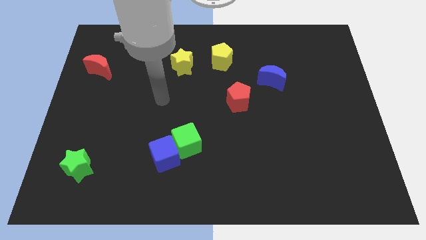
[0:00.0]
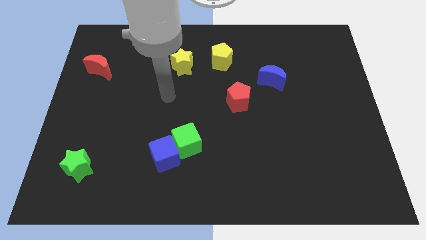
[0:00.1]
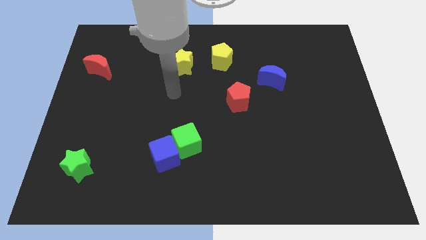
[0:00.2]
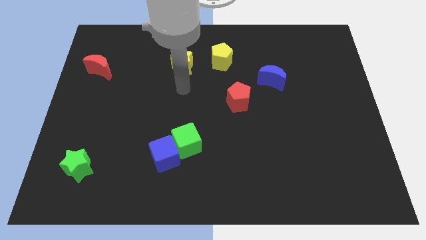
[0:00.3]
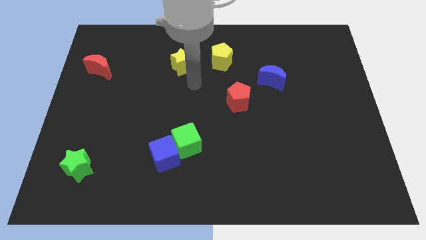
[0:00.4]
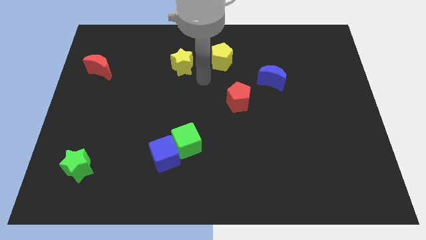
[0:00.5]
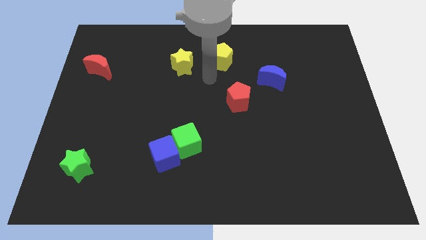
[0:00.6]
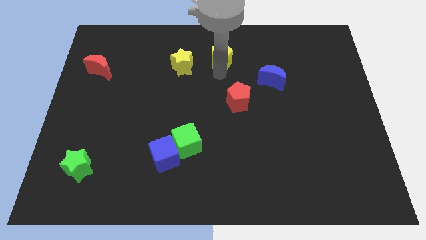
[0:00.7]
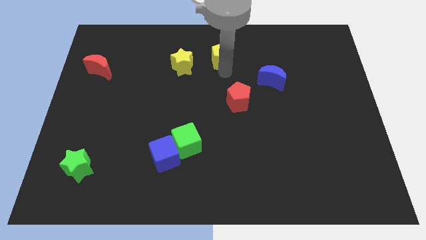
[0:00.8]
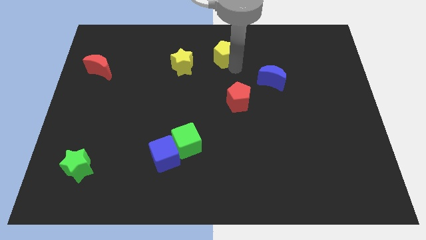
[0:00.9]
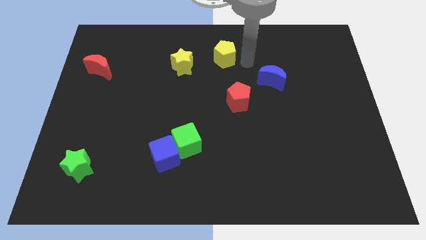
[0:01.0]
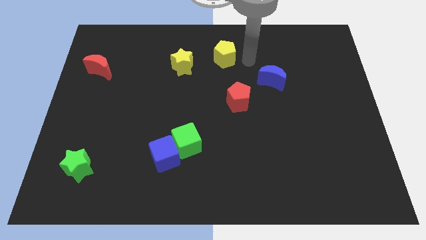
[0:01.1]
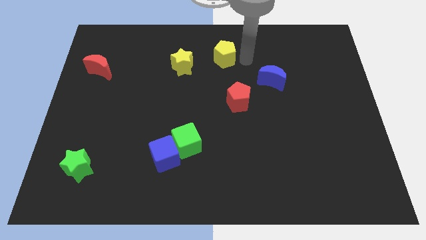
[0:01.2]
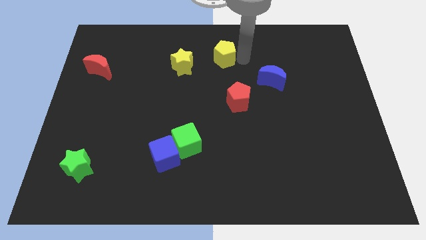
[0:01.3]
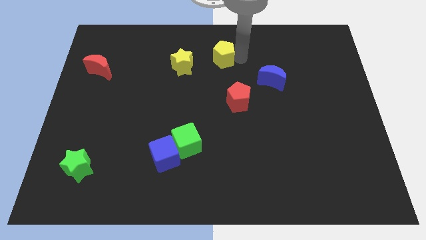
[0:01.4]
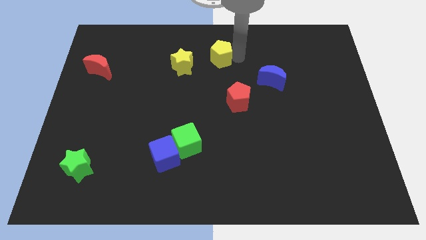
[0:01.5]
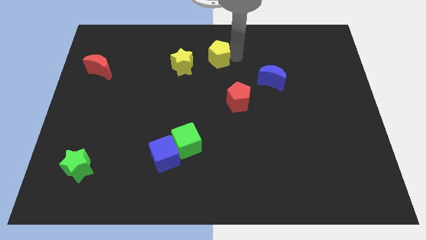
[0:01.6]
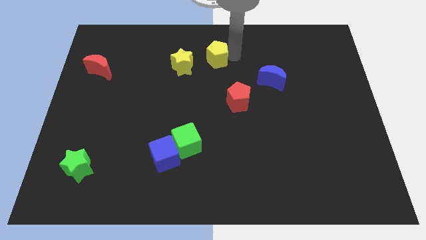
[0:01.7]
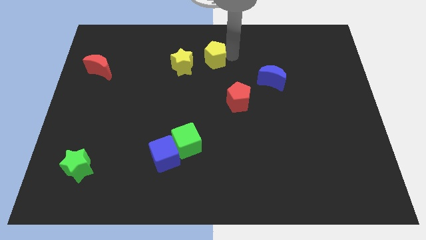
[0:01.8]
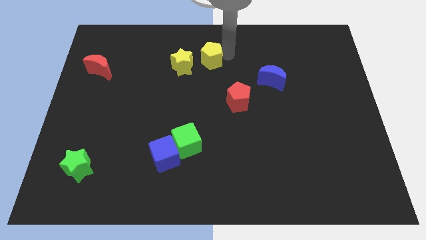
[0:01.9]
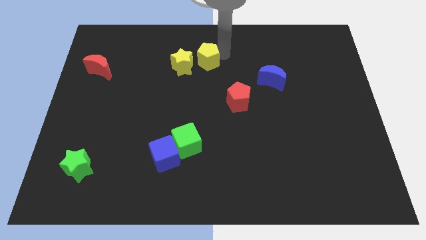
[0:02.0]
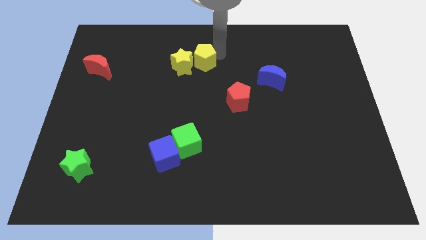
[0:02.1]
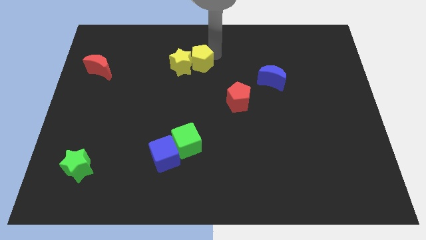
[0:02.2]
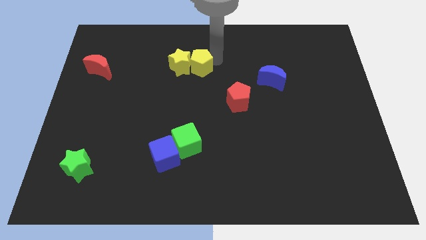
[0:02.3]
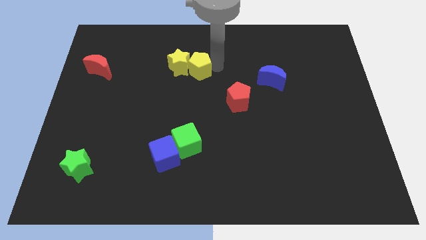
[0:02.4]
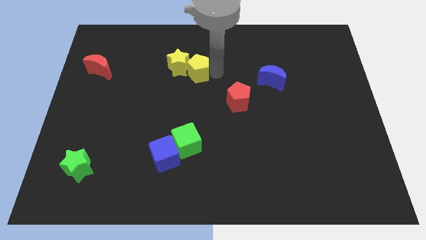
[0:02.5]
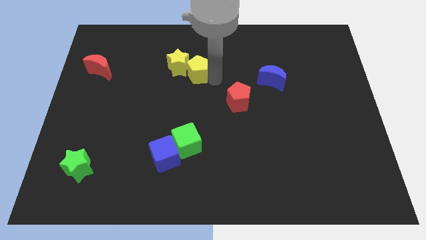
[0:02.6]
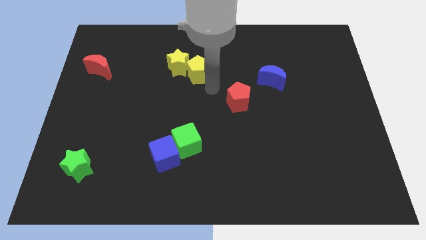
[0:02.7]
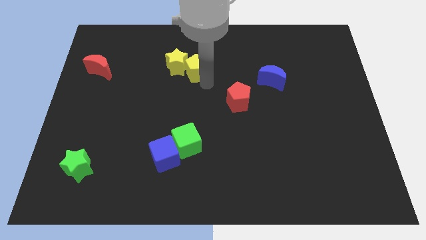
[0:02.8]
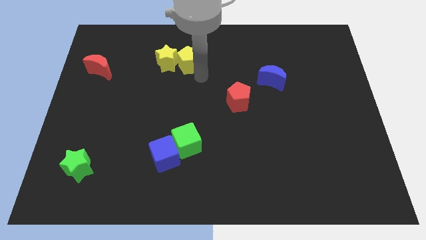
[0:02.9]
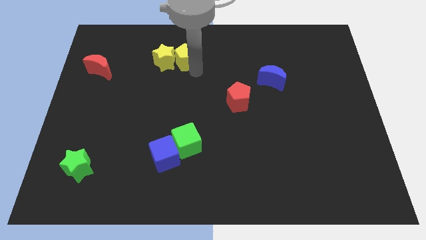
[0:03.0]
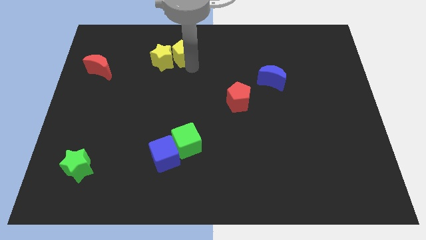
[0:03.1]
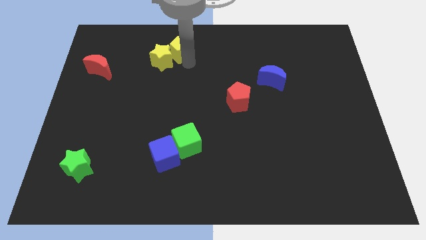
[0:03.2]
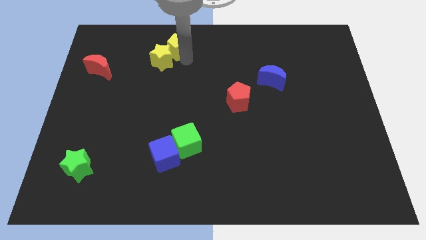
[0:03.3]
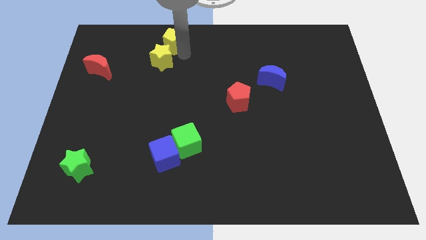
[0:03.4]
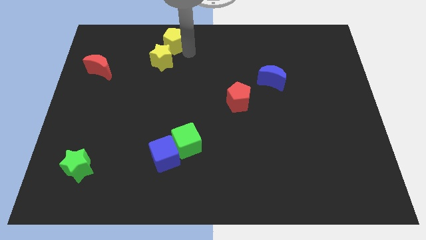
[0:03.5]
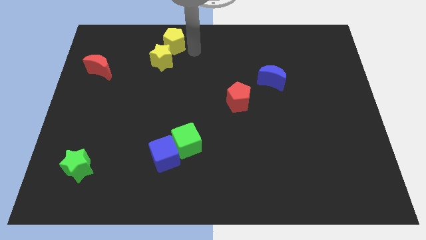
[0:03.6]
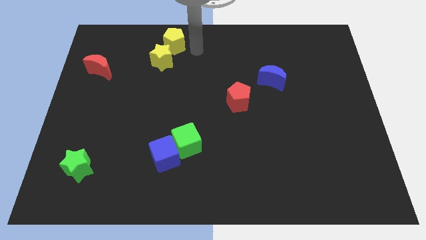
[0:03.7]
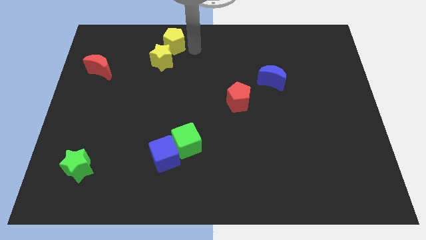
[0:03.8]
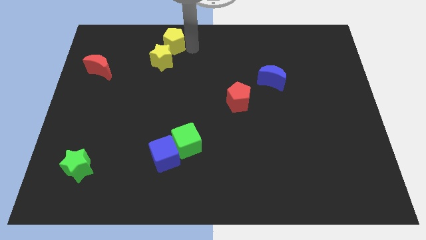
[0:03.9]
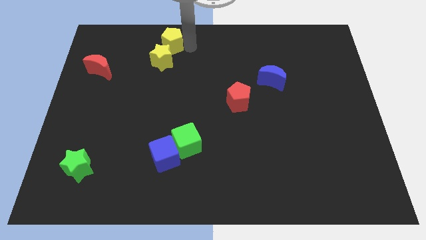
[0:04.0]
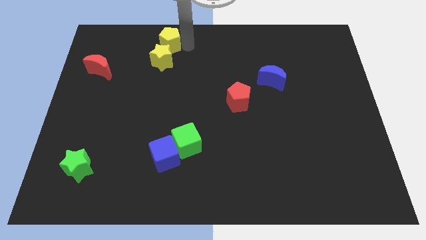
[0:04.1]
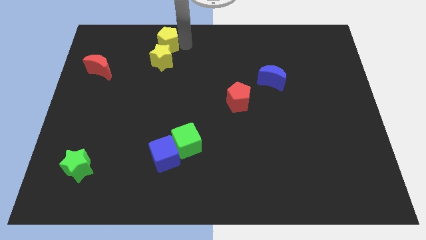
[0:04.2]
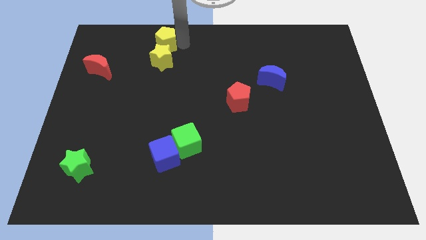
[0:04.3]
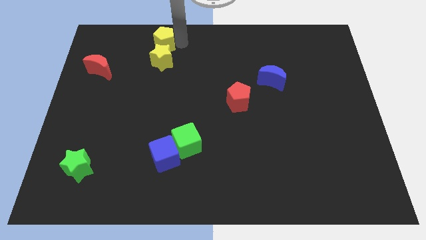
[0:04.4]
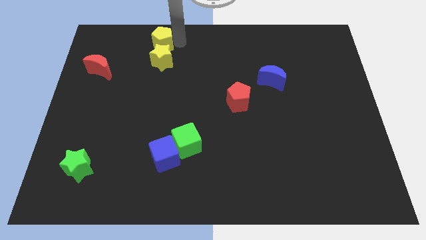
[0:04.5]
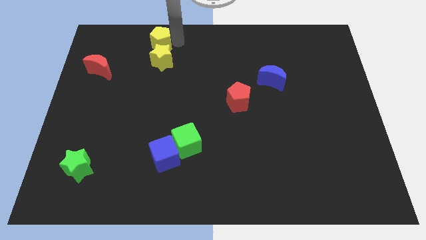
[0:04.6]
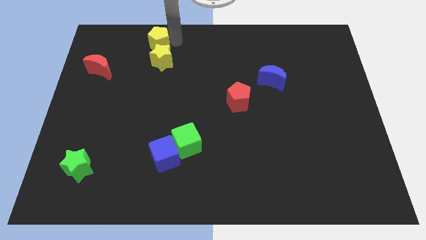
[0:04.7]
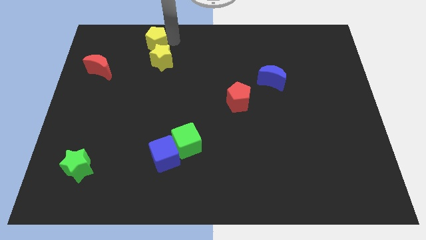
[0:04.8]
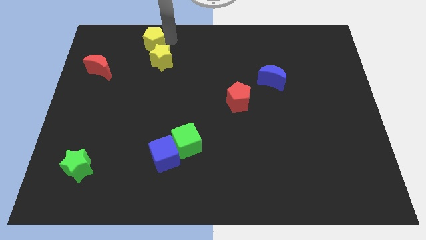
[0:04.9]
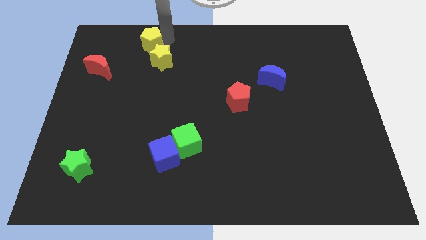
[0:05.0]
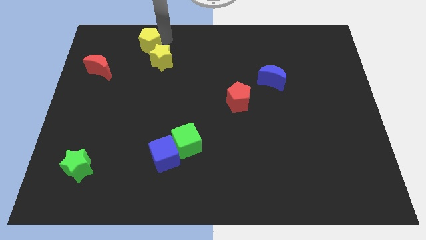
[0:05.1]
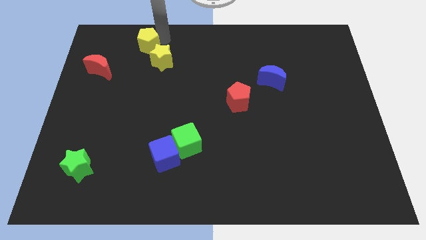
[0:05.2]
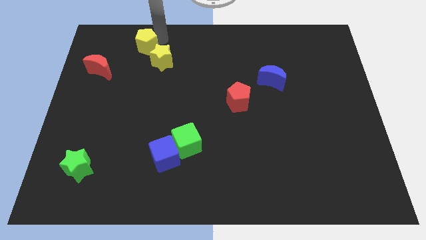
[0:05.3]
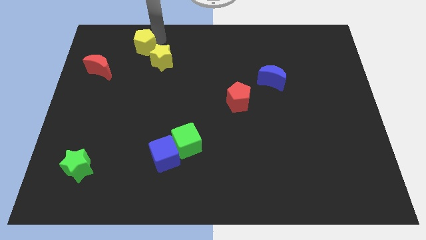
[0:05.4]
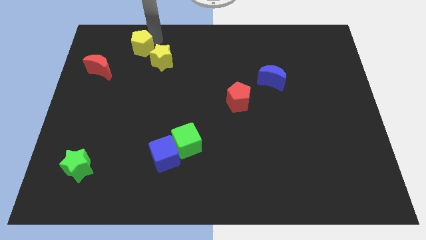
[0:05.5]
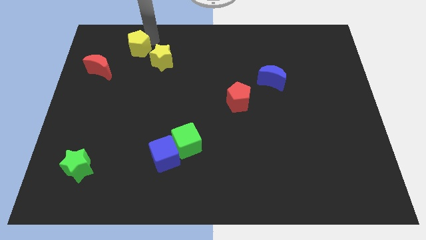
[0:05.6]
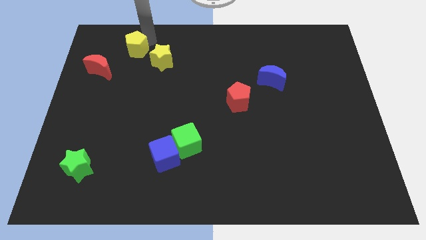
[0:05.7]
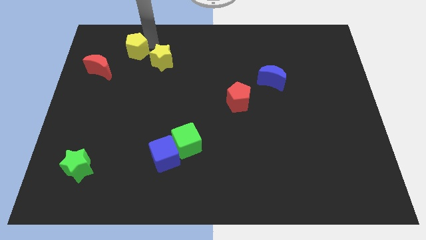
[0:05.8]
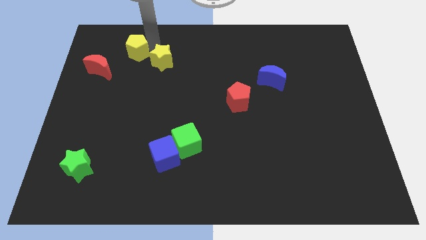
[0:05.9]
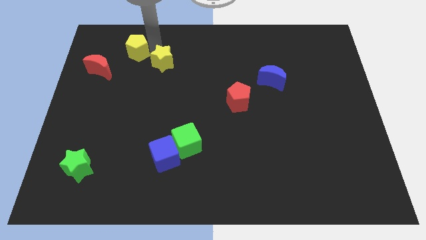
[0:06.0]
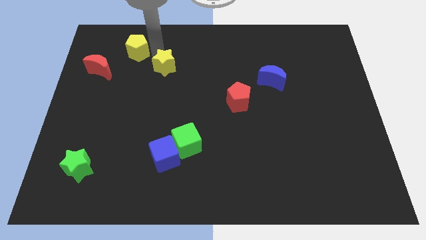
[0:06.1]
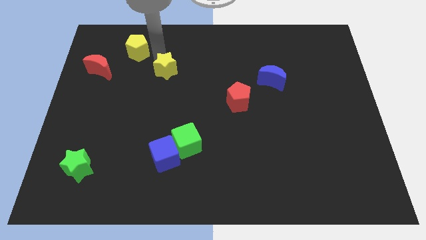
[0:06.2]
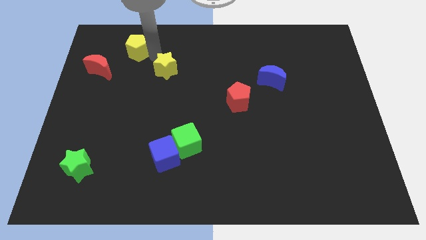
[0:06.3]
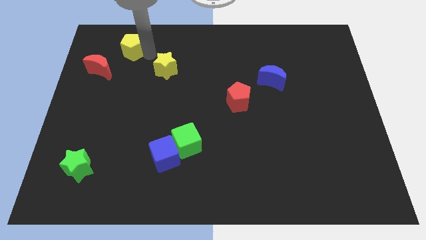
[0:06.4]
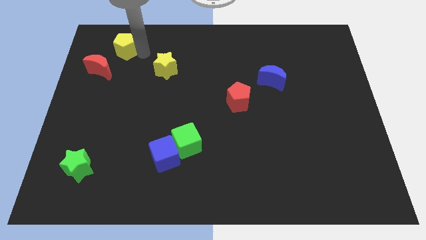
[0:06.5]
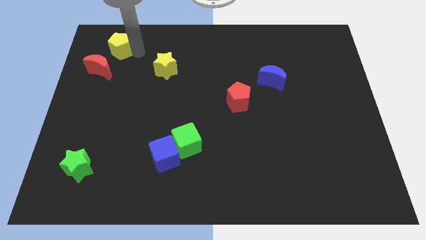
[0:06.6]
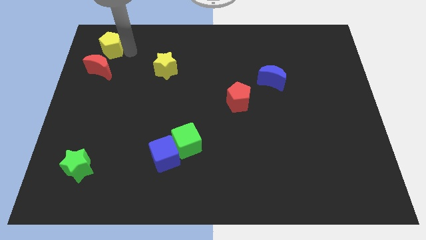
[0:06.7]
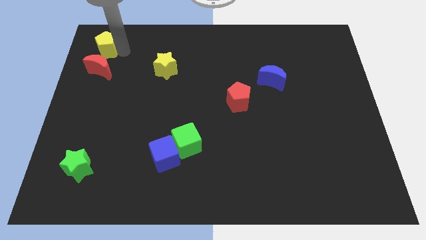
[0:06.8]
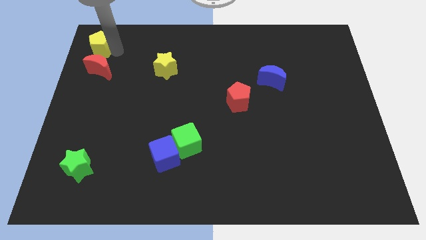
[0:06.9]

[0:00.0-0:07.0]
move the yellow pentagon to the top left of the board

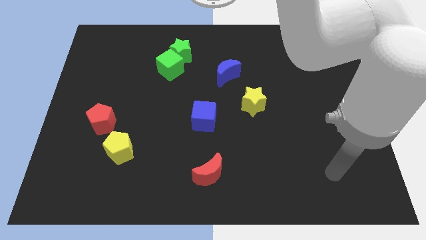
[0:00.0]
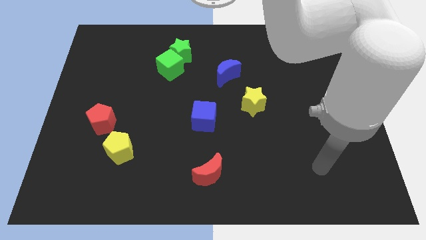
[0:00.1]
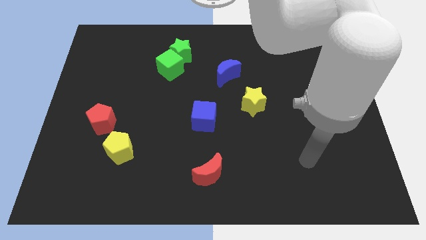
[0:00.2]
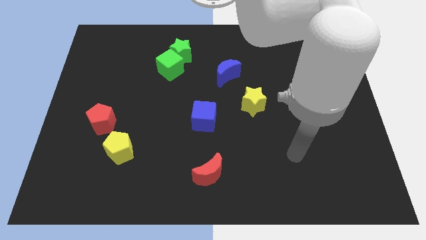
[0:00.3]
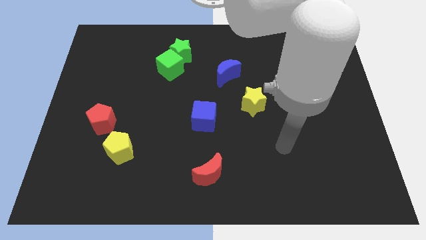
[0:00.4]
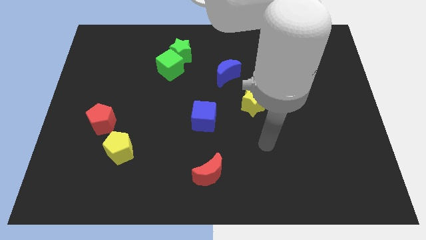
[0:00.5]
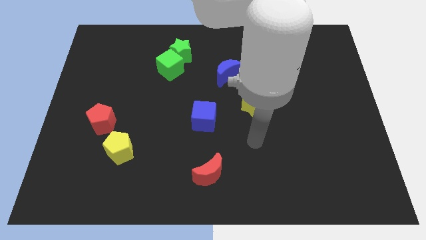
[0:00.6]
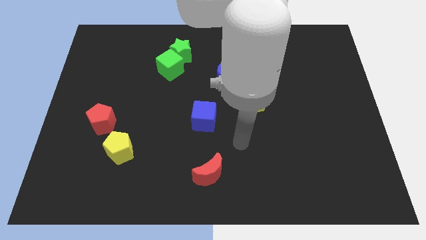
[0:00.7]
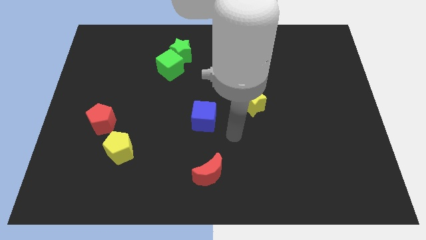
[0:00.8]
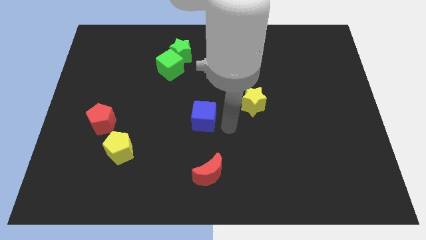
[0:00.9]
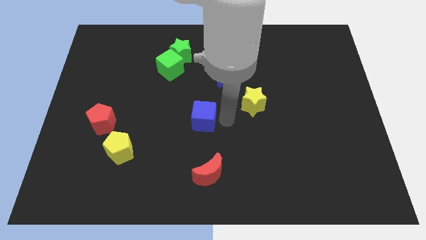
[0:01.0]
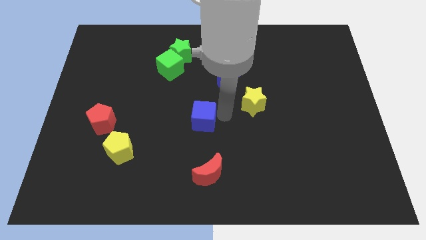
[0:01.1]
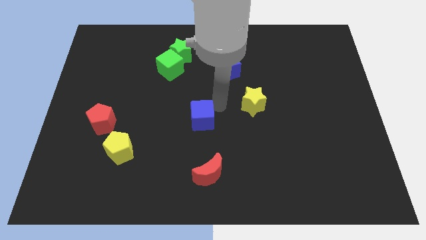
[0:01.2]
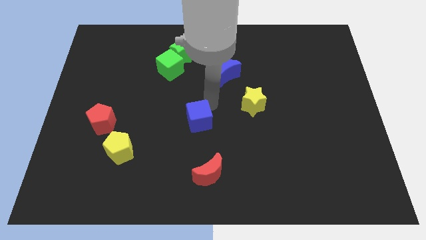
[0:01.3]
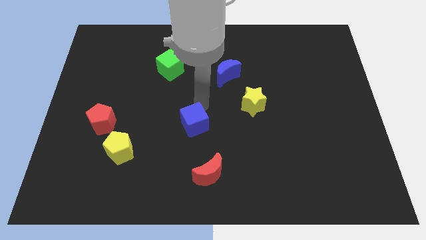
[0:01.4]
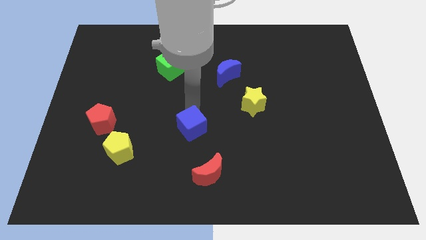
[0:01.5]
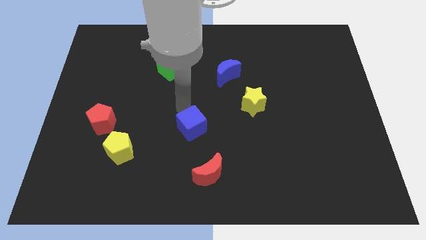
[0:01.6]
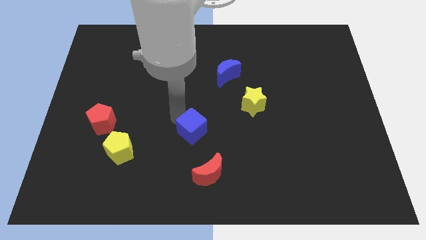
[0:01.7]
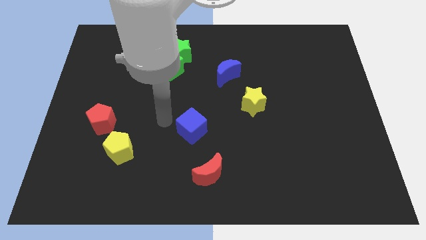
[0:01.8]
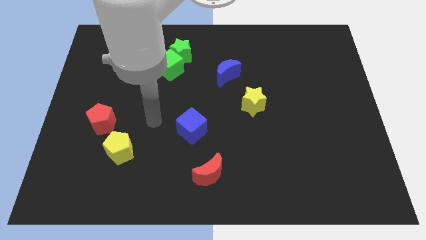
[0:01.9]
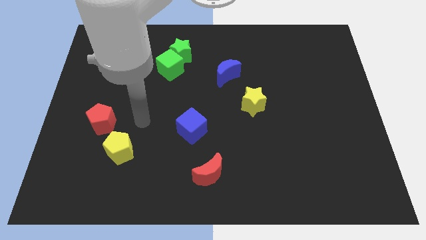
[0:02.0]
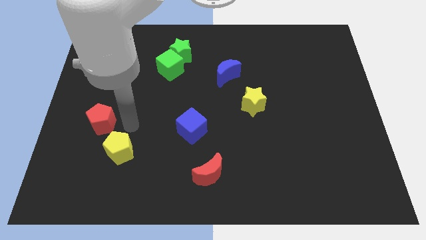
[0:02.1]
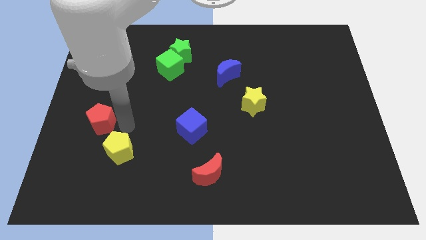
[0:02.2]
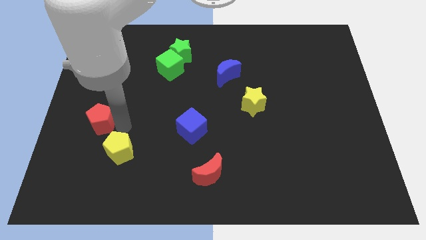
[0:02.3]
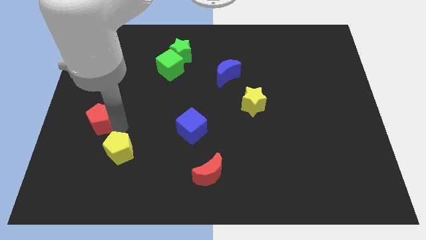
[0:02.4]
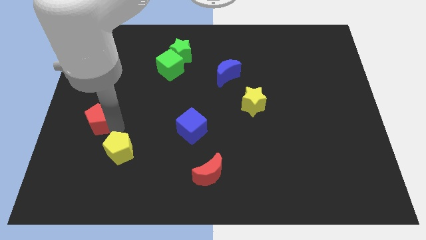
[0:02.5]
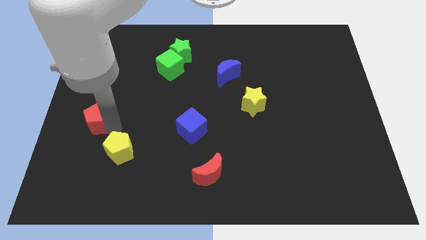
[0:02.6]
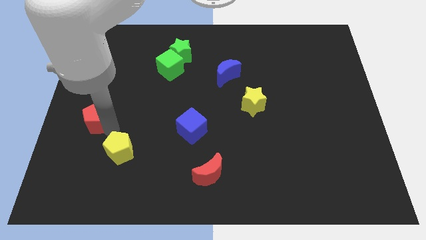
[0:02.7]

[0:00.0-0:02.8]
push the red pentagon to the left side
